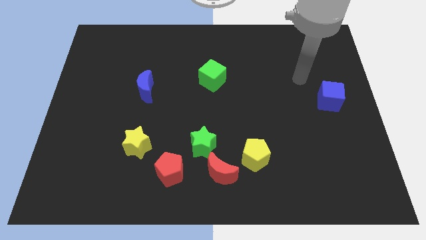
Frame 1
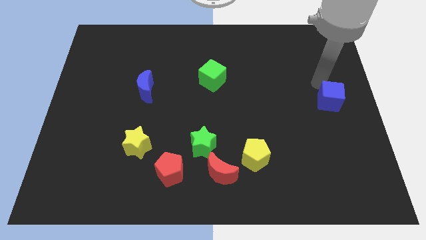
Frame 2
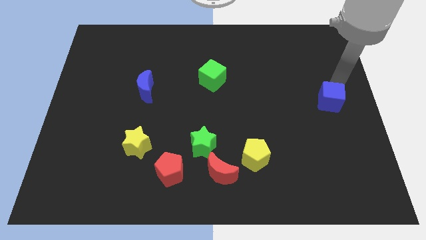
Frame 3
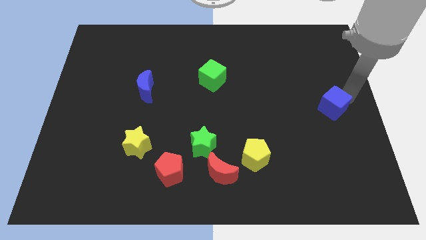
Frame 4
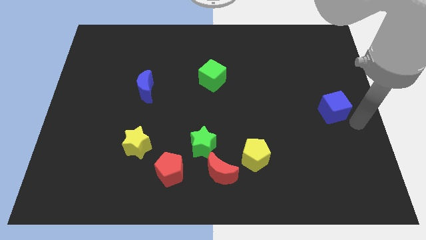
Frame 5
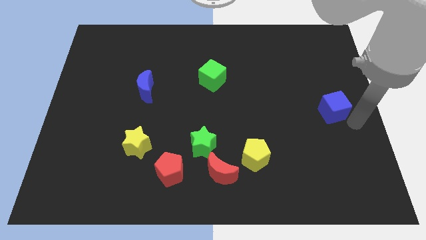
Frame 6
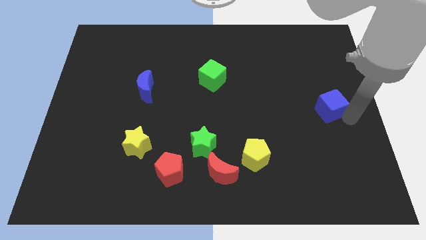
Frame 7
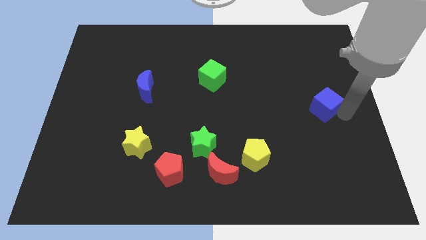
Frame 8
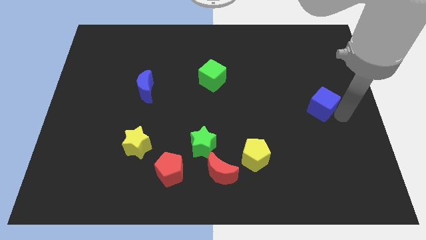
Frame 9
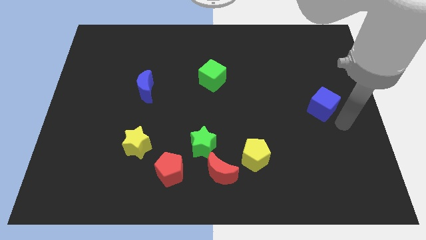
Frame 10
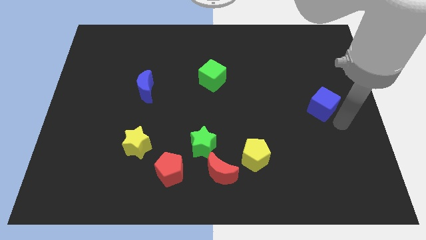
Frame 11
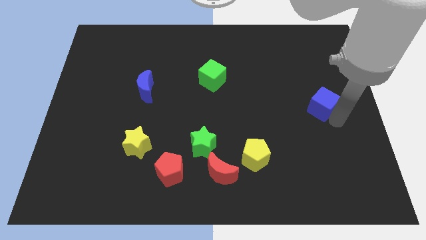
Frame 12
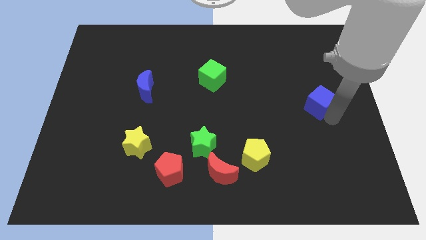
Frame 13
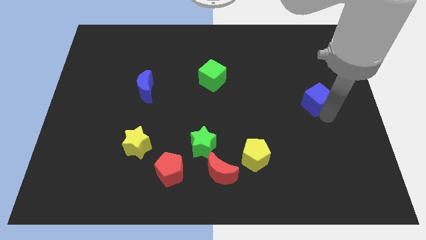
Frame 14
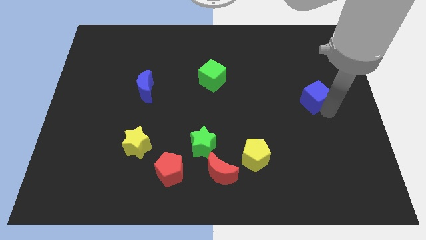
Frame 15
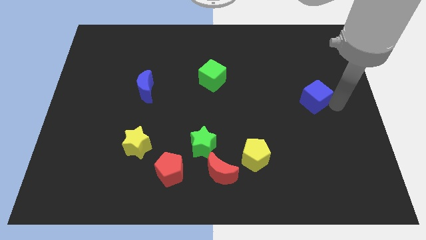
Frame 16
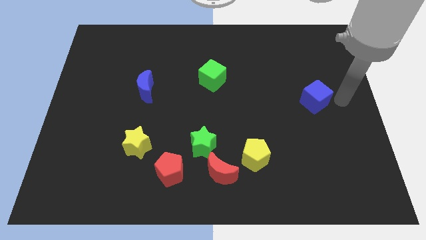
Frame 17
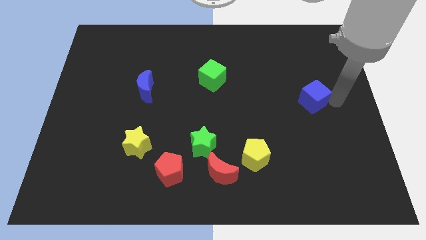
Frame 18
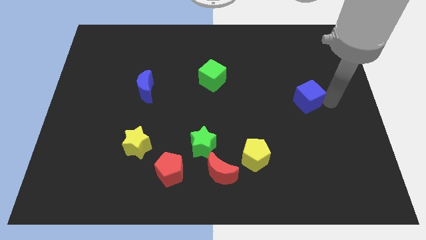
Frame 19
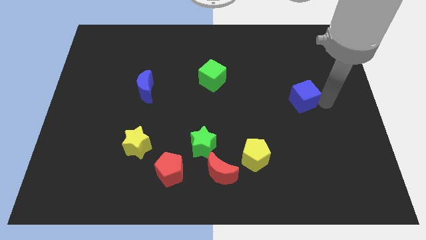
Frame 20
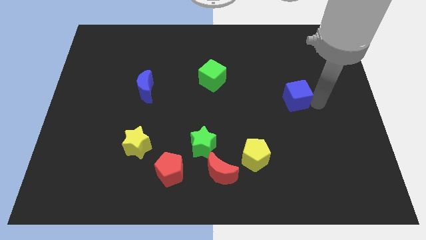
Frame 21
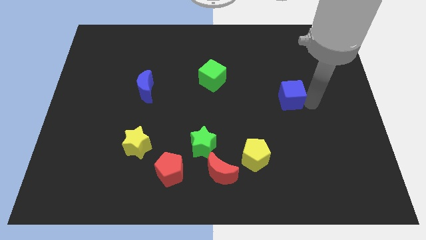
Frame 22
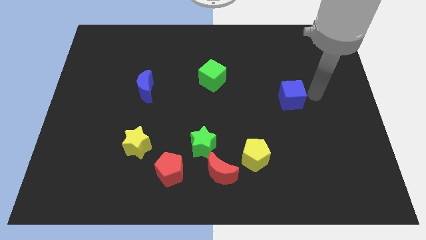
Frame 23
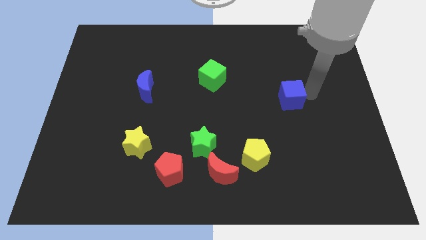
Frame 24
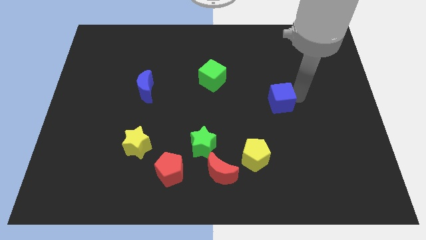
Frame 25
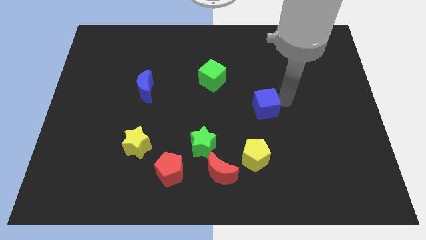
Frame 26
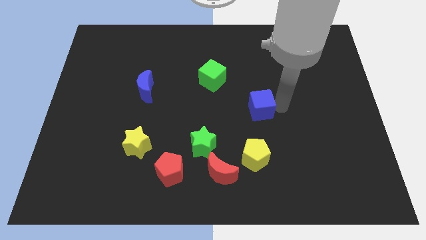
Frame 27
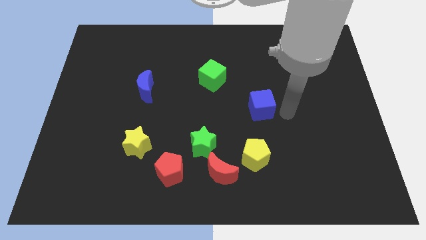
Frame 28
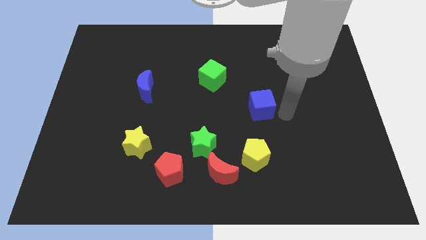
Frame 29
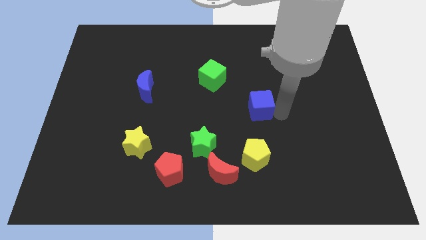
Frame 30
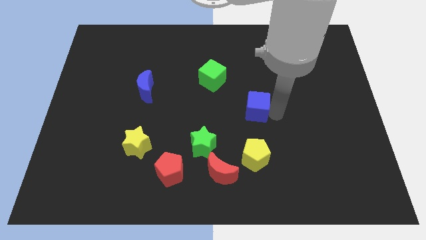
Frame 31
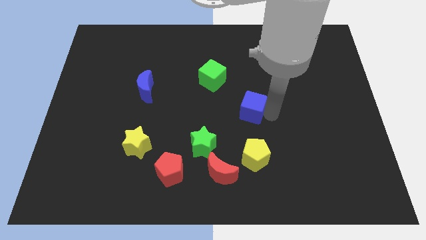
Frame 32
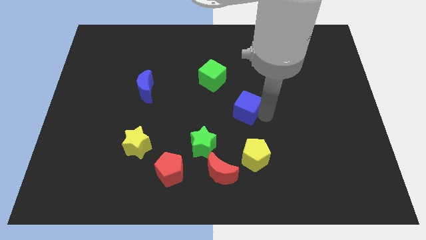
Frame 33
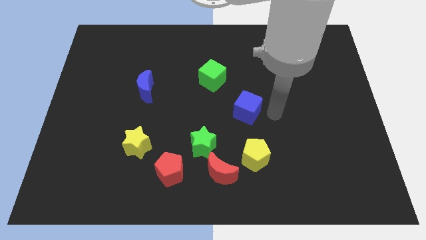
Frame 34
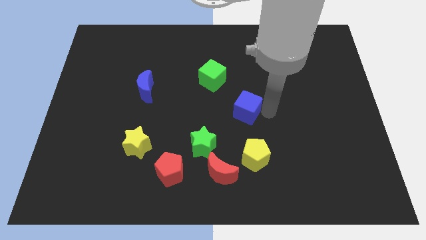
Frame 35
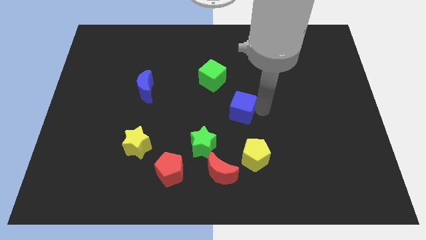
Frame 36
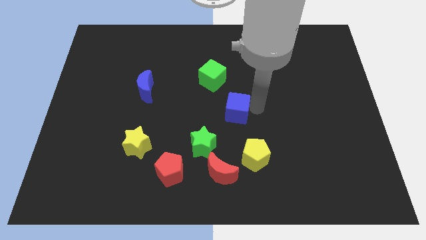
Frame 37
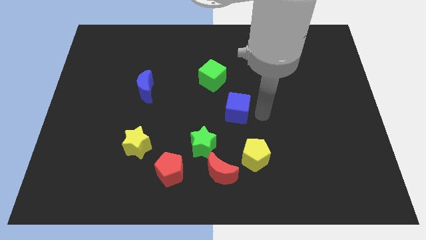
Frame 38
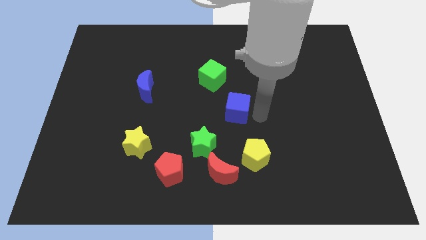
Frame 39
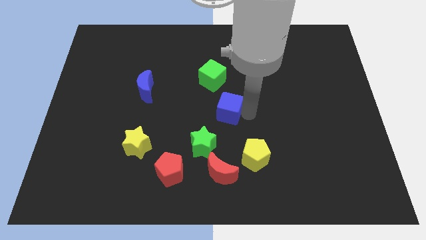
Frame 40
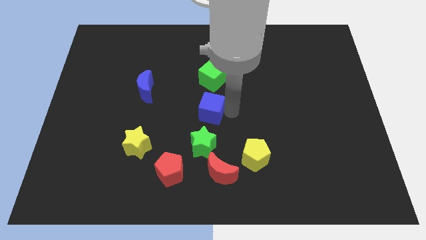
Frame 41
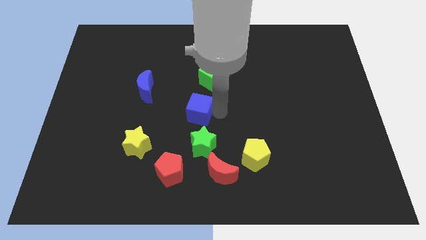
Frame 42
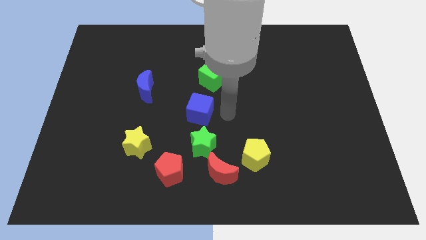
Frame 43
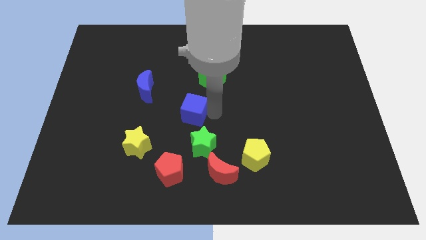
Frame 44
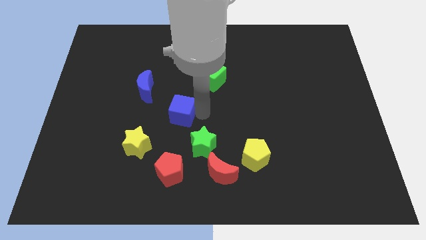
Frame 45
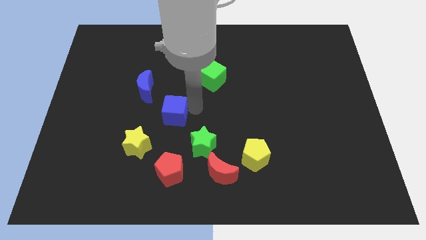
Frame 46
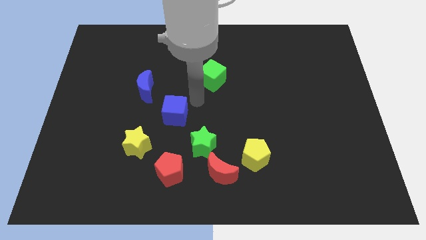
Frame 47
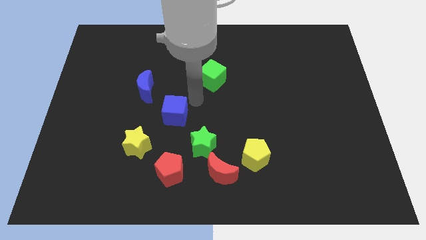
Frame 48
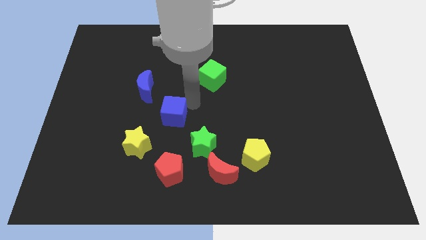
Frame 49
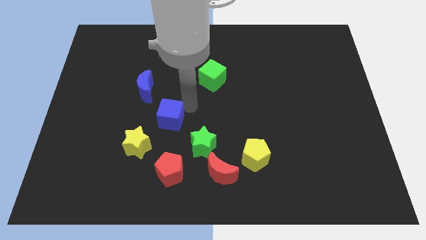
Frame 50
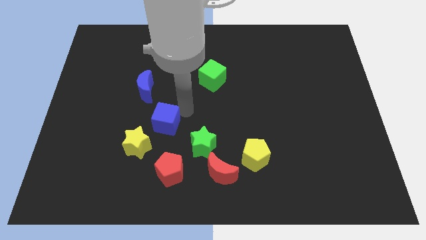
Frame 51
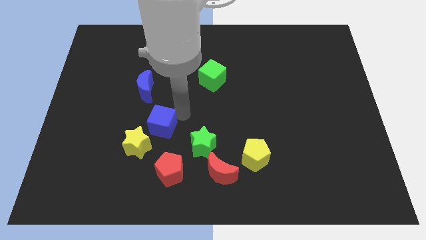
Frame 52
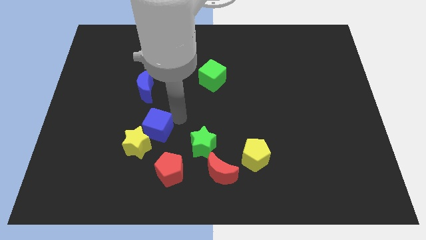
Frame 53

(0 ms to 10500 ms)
move the blue cube to the yellow star

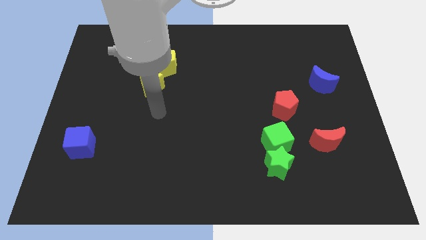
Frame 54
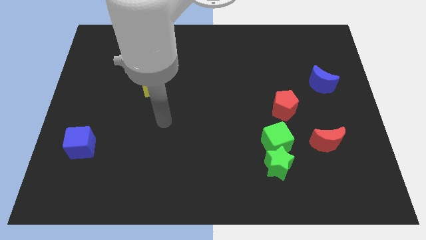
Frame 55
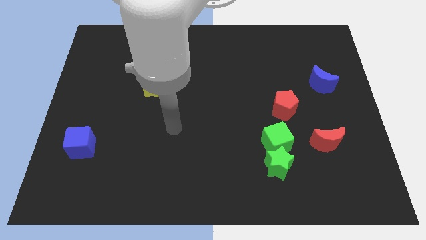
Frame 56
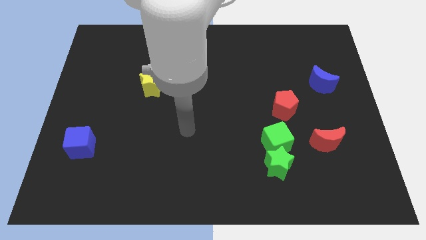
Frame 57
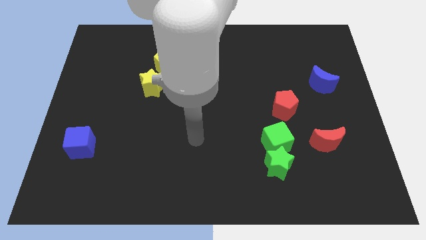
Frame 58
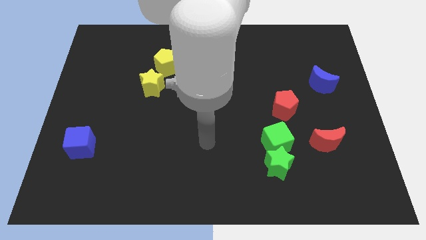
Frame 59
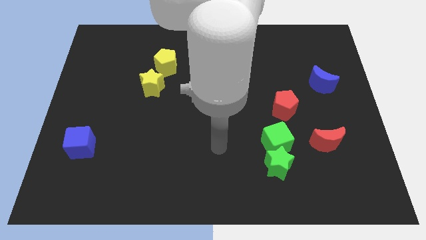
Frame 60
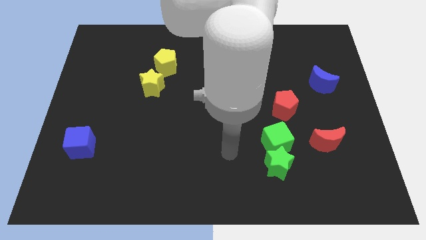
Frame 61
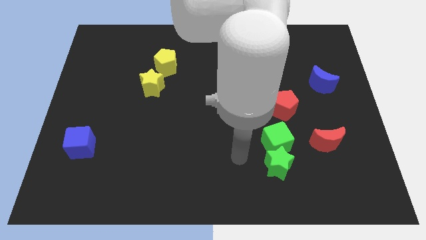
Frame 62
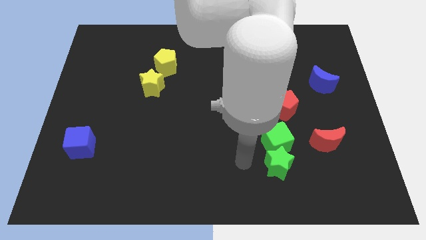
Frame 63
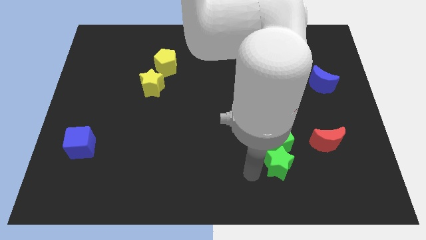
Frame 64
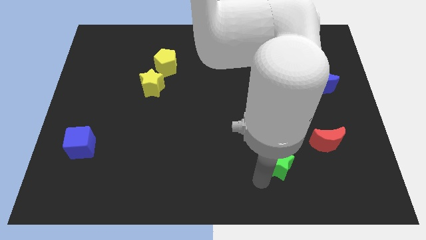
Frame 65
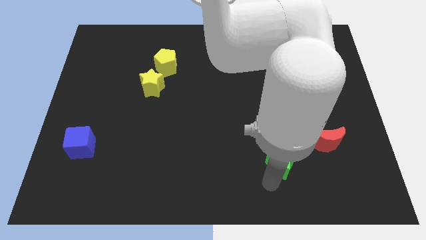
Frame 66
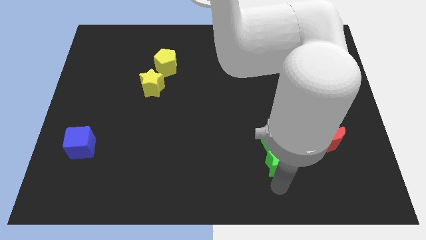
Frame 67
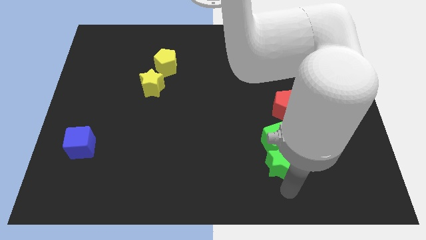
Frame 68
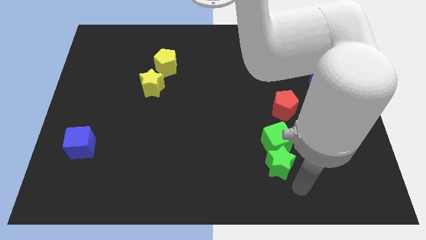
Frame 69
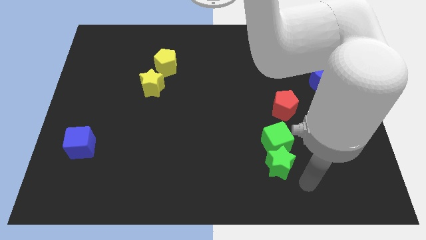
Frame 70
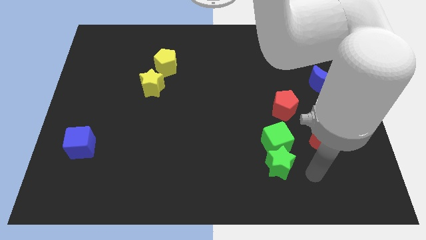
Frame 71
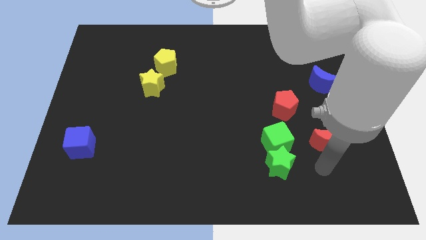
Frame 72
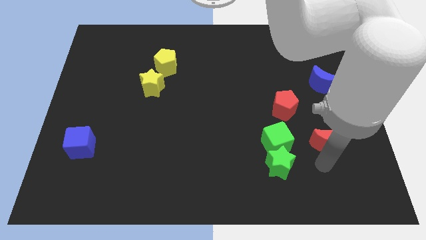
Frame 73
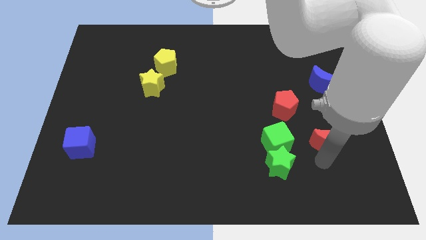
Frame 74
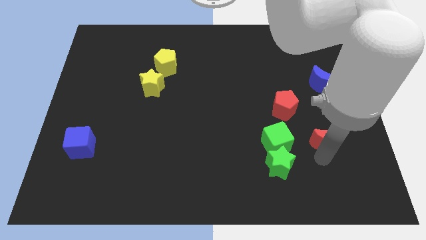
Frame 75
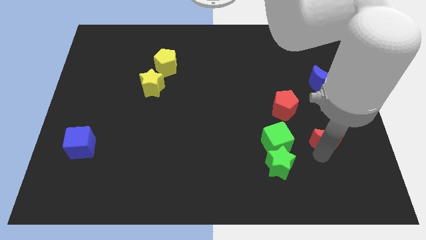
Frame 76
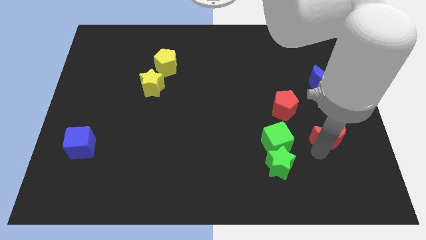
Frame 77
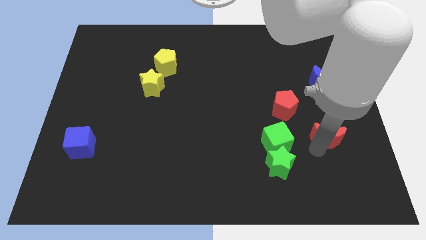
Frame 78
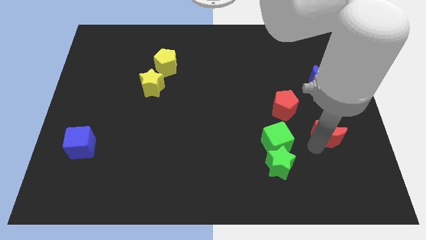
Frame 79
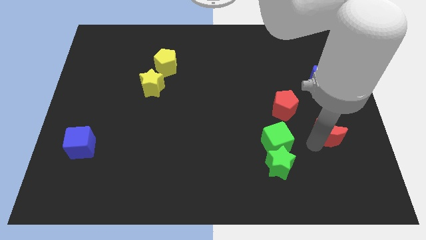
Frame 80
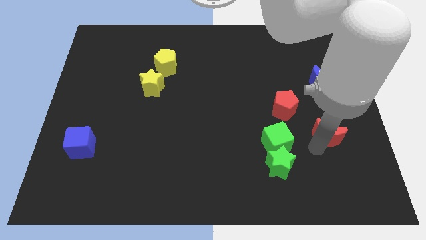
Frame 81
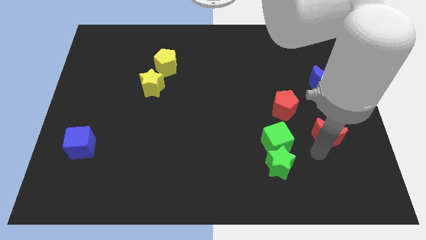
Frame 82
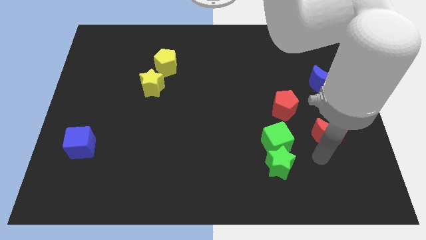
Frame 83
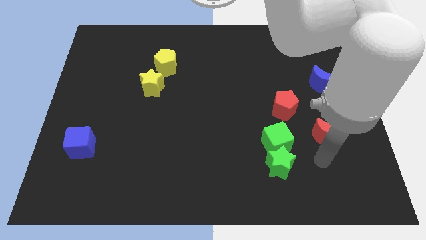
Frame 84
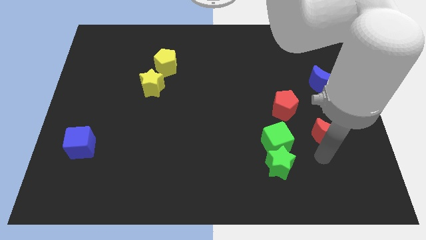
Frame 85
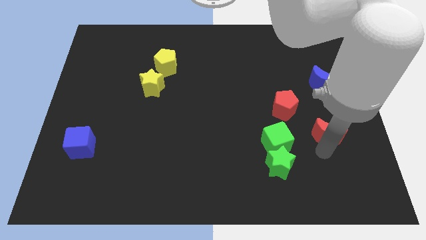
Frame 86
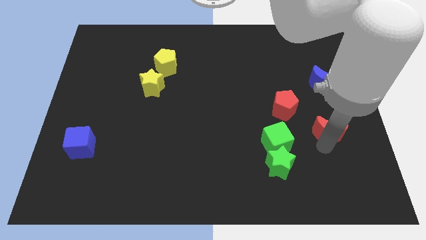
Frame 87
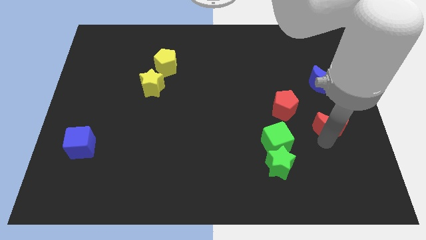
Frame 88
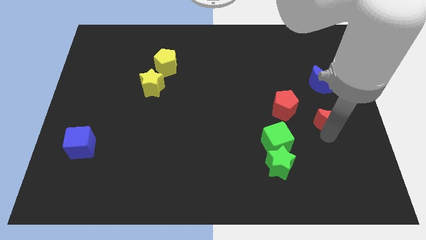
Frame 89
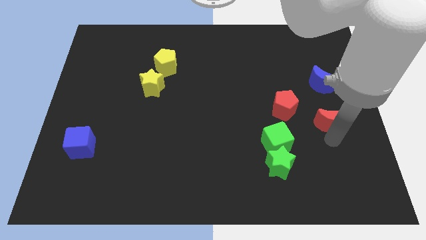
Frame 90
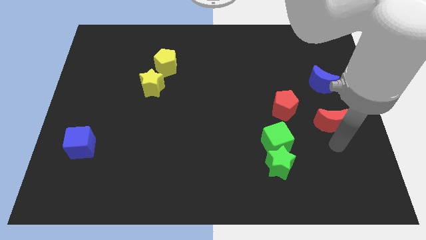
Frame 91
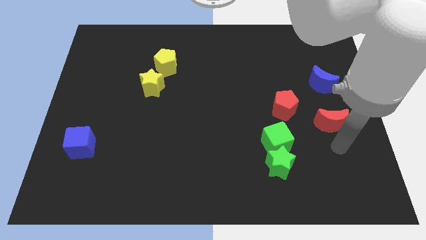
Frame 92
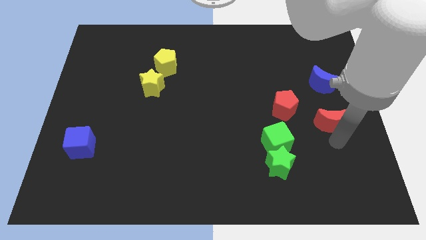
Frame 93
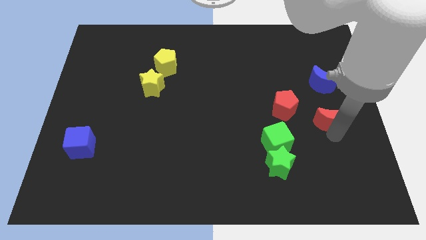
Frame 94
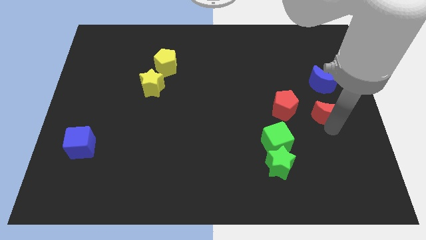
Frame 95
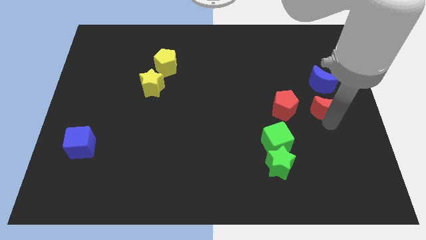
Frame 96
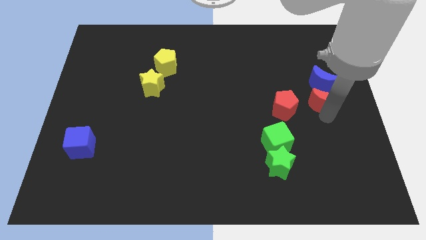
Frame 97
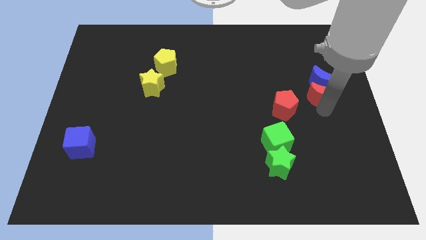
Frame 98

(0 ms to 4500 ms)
put the red moon to the blue moon
